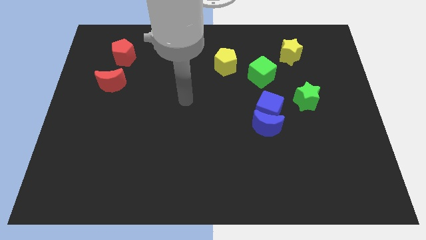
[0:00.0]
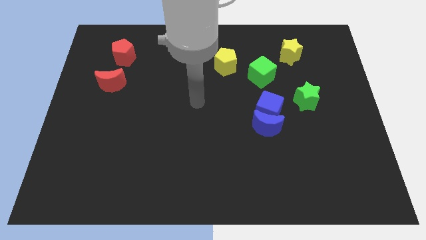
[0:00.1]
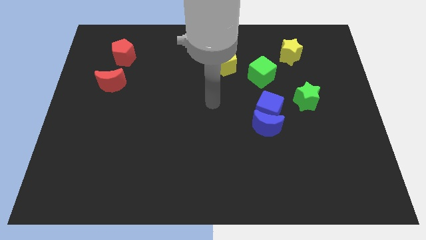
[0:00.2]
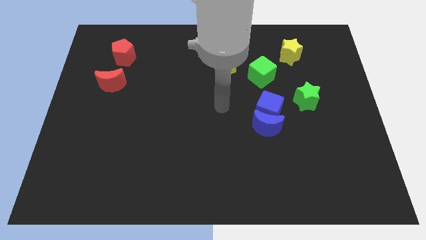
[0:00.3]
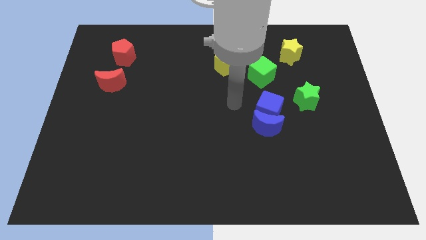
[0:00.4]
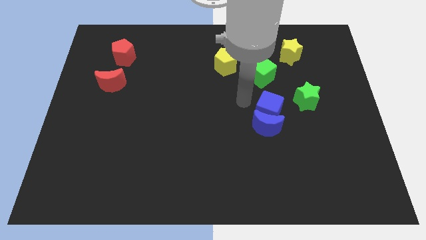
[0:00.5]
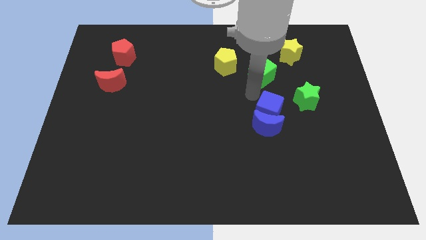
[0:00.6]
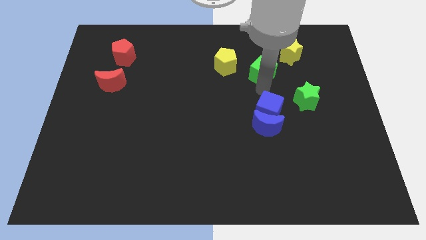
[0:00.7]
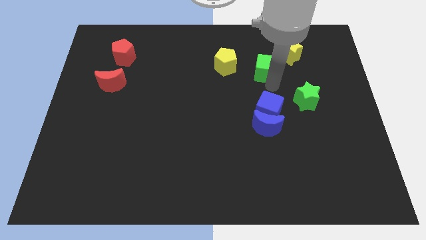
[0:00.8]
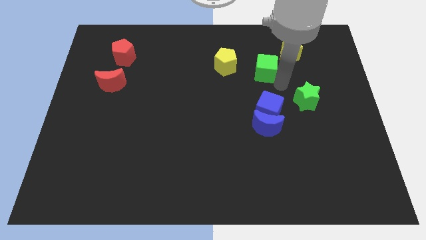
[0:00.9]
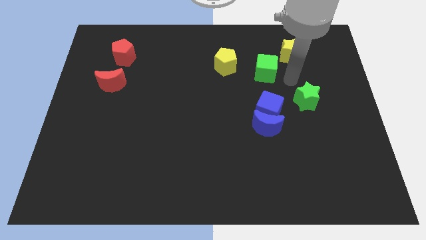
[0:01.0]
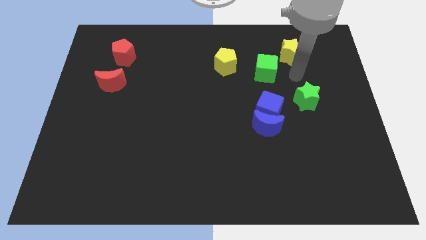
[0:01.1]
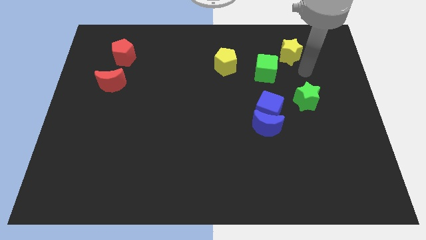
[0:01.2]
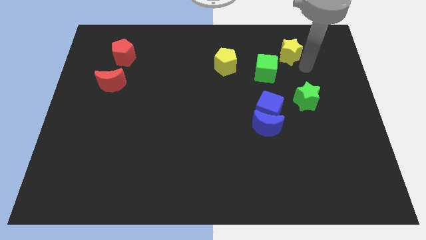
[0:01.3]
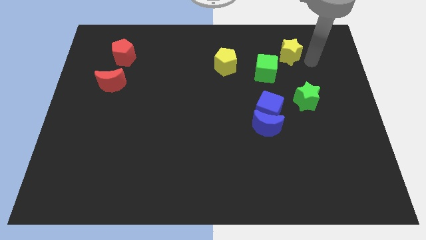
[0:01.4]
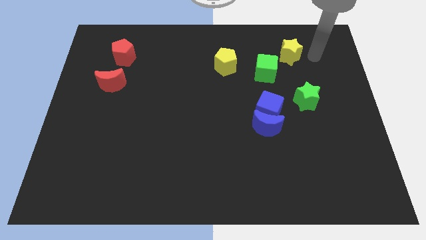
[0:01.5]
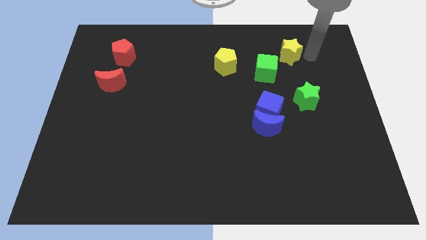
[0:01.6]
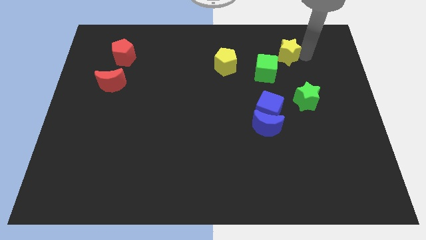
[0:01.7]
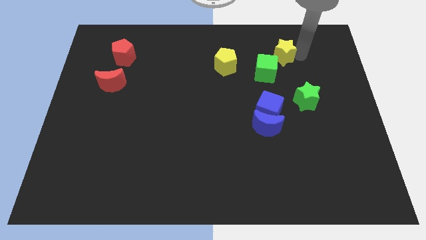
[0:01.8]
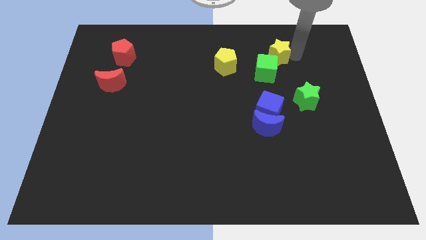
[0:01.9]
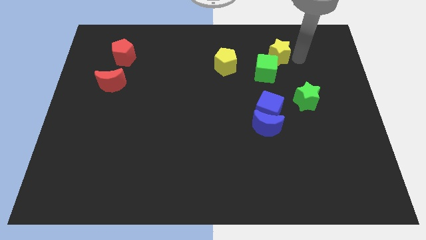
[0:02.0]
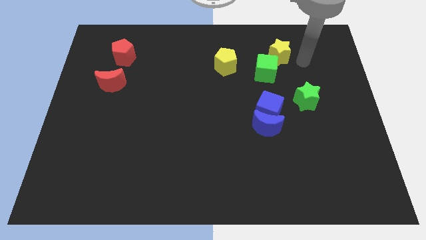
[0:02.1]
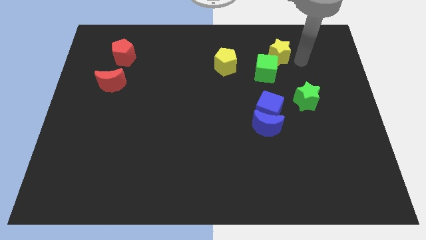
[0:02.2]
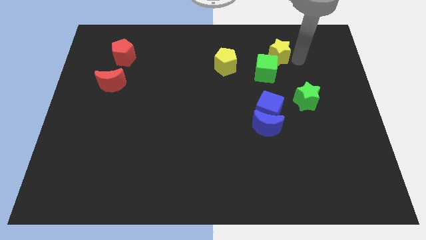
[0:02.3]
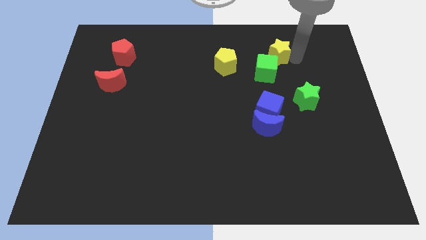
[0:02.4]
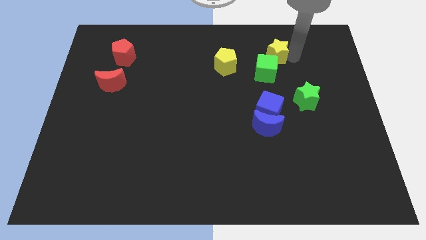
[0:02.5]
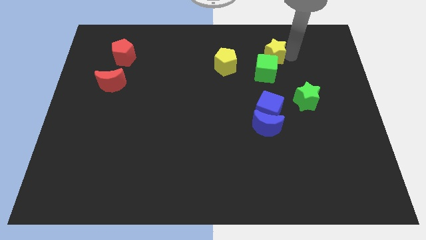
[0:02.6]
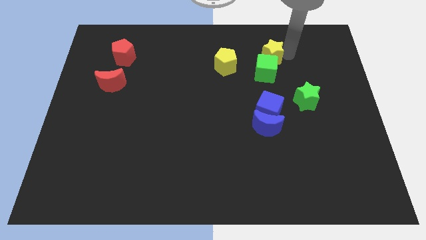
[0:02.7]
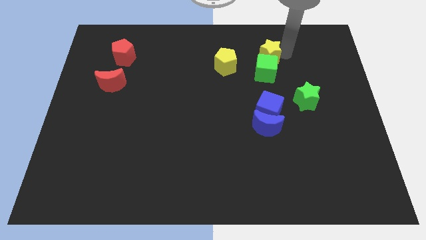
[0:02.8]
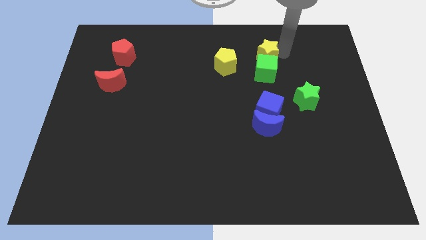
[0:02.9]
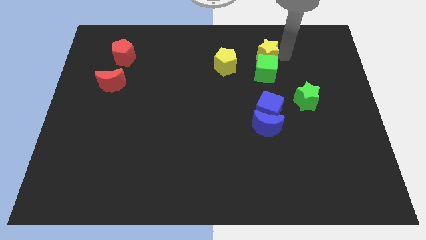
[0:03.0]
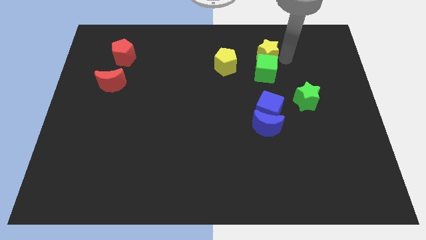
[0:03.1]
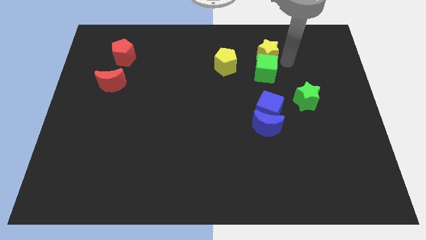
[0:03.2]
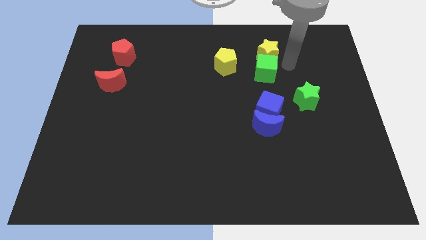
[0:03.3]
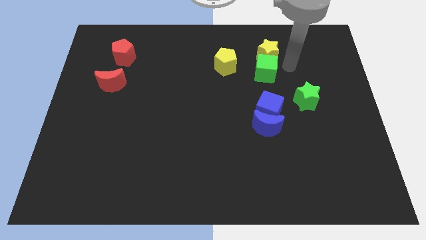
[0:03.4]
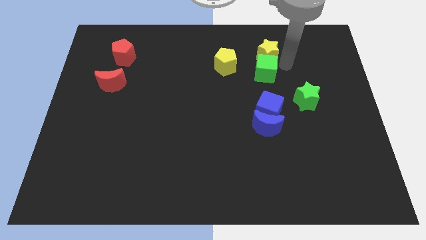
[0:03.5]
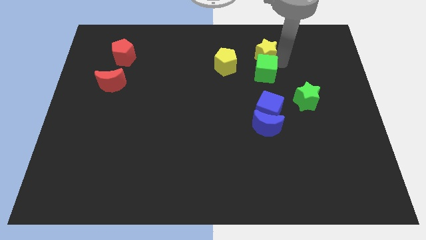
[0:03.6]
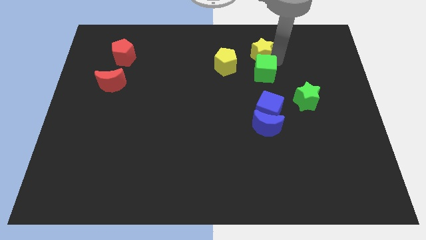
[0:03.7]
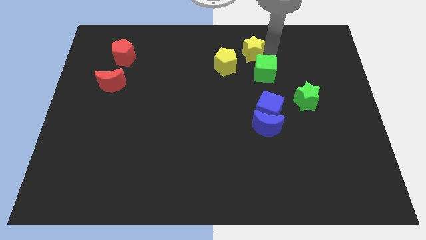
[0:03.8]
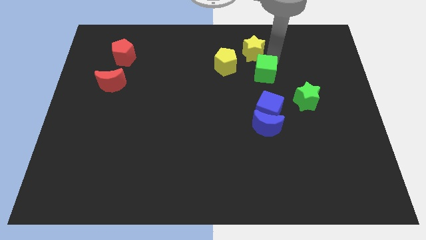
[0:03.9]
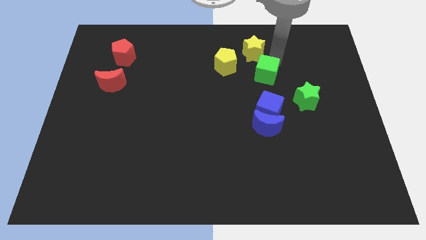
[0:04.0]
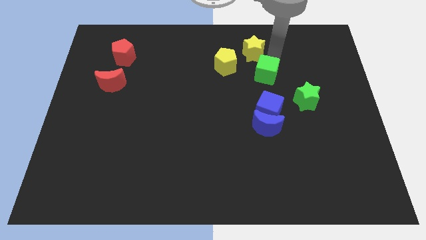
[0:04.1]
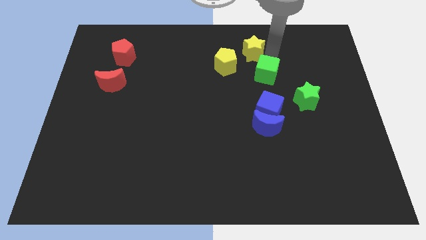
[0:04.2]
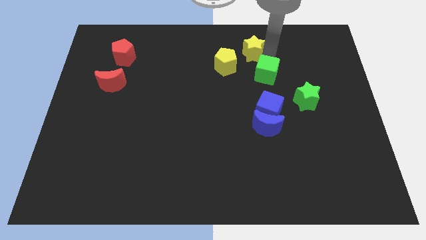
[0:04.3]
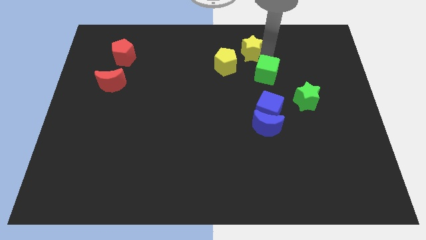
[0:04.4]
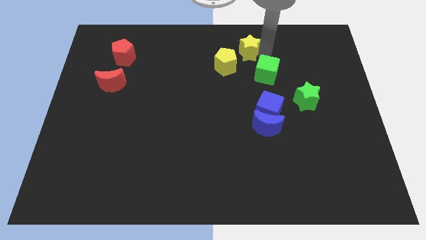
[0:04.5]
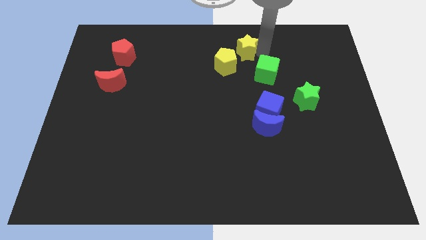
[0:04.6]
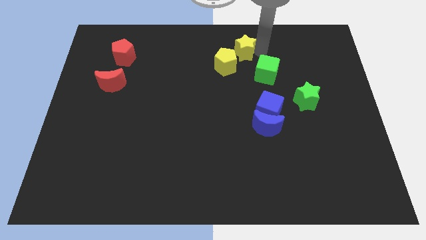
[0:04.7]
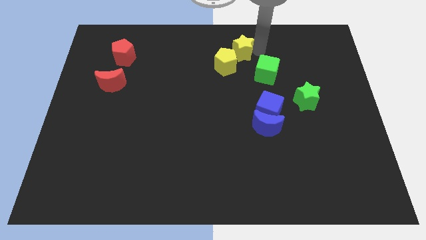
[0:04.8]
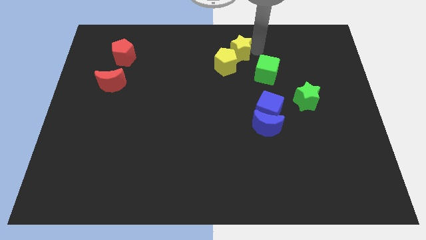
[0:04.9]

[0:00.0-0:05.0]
move the yellow star to the top

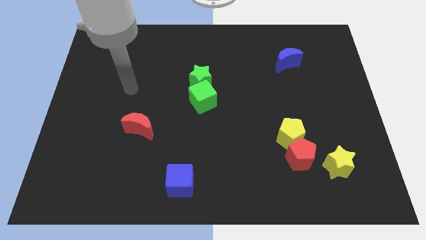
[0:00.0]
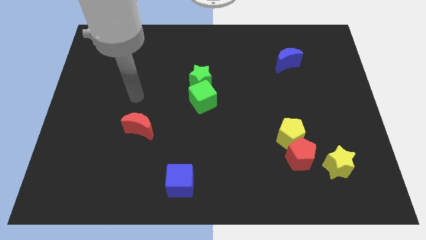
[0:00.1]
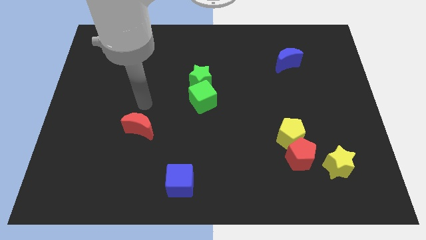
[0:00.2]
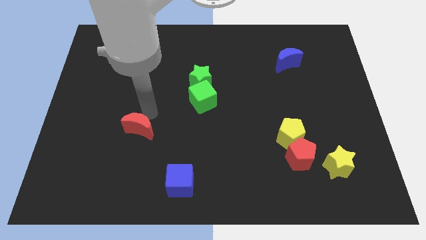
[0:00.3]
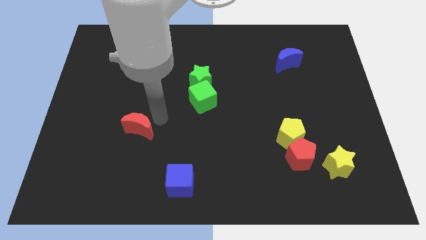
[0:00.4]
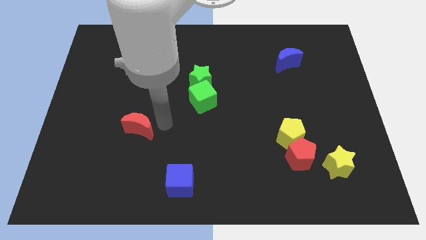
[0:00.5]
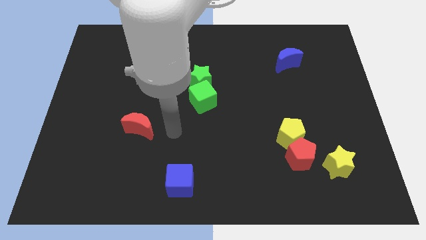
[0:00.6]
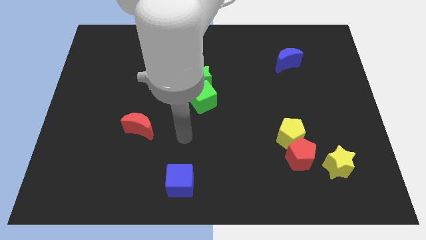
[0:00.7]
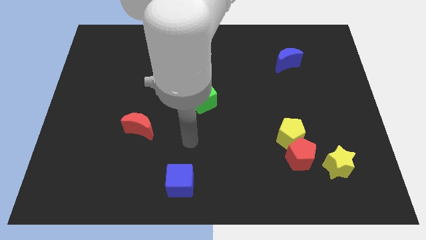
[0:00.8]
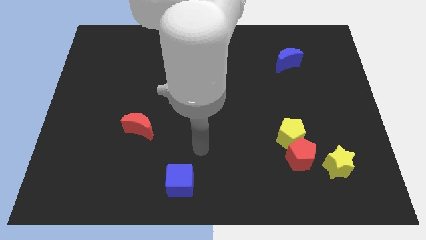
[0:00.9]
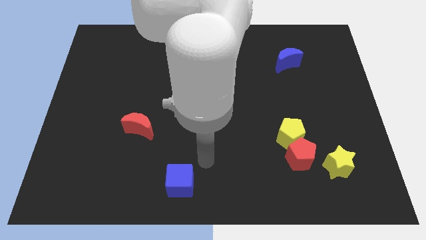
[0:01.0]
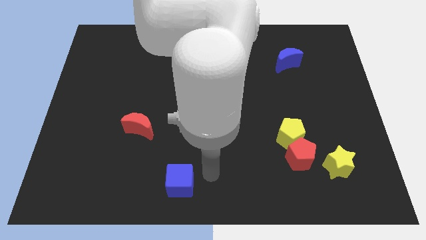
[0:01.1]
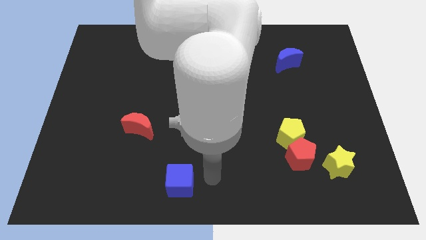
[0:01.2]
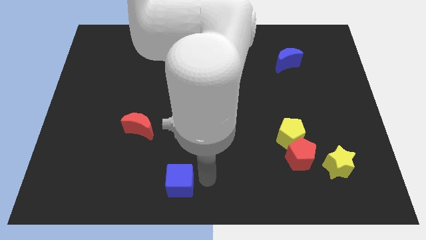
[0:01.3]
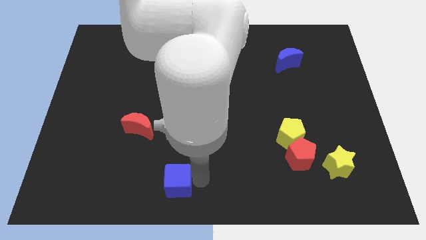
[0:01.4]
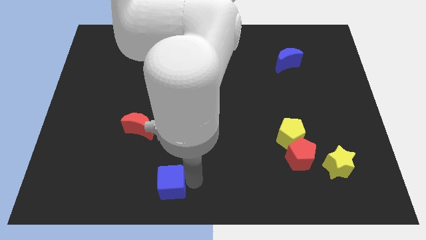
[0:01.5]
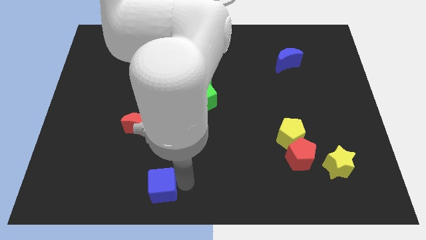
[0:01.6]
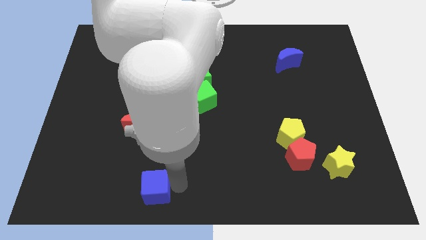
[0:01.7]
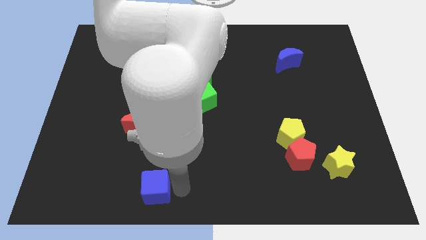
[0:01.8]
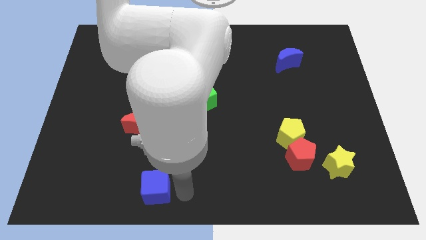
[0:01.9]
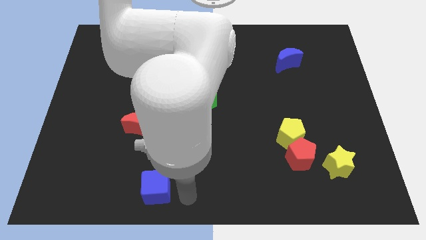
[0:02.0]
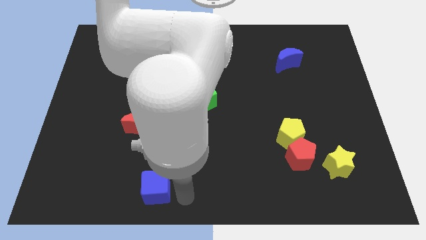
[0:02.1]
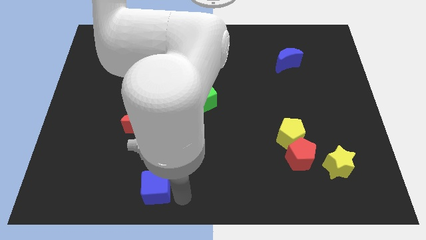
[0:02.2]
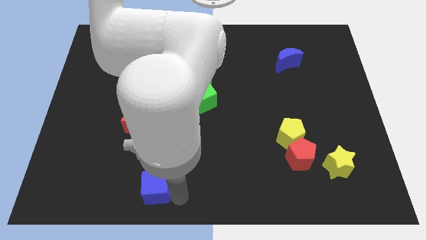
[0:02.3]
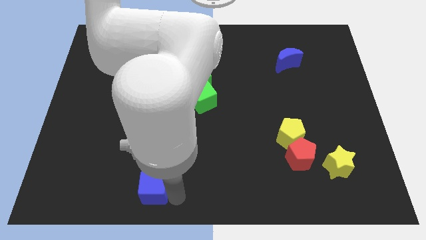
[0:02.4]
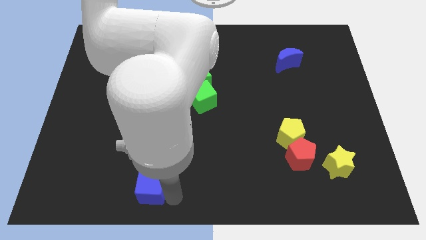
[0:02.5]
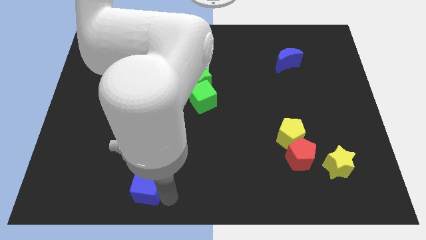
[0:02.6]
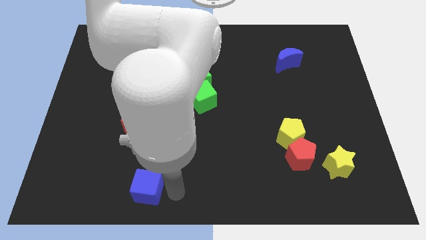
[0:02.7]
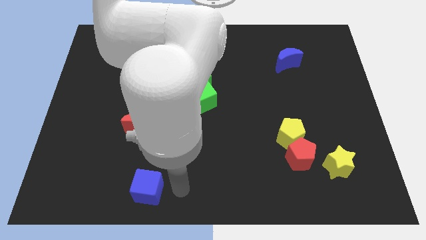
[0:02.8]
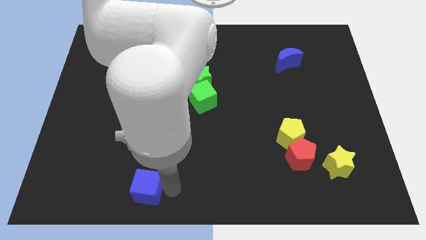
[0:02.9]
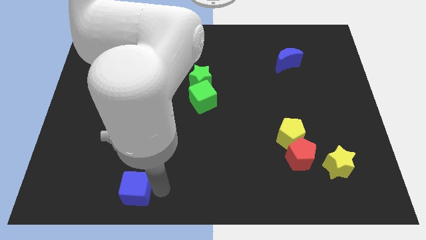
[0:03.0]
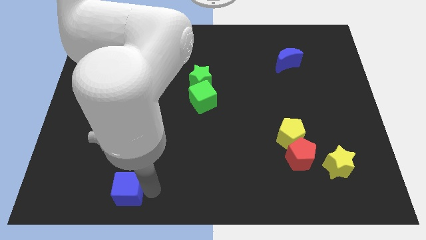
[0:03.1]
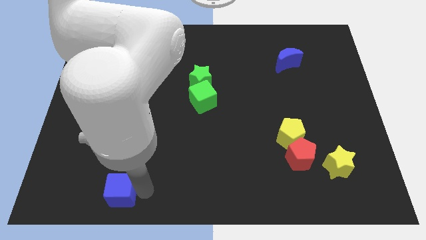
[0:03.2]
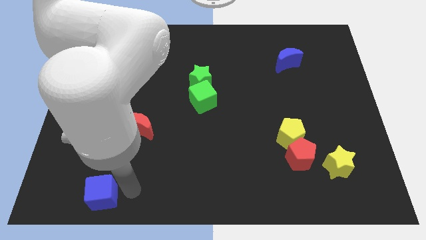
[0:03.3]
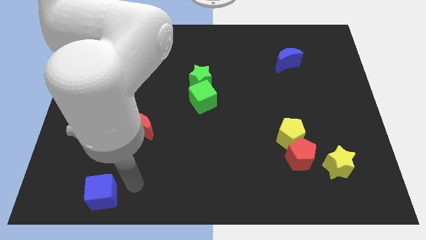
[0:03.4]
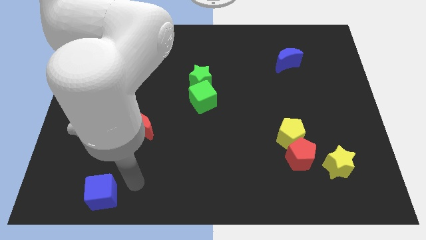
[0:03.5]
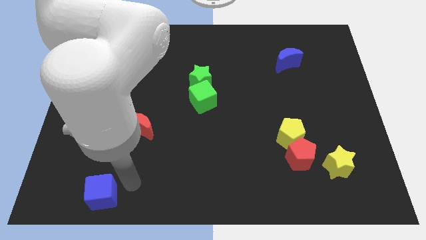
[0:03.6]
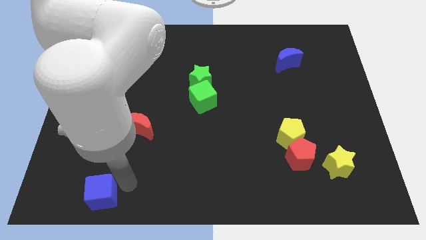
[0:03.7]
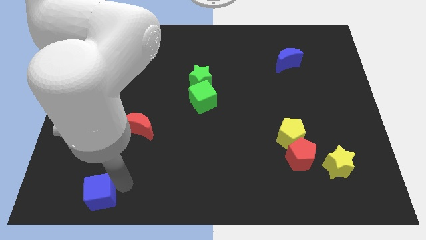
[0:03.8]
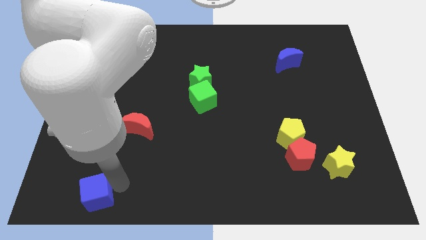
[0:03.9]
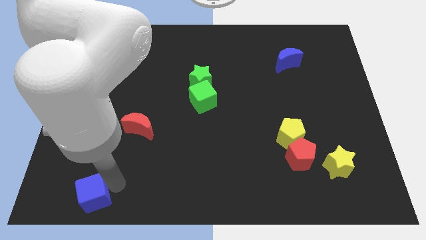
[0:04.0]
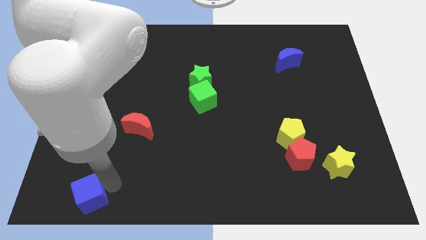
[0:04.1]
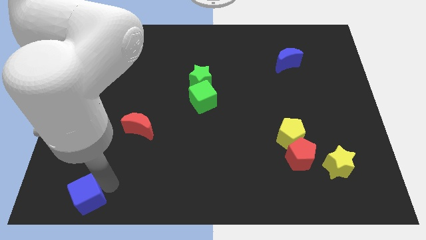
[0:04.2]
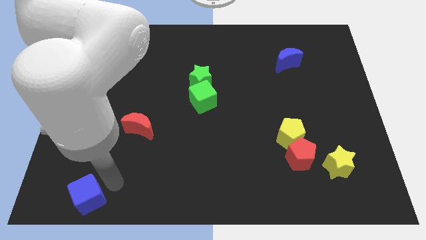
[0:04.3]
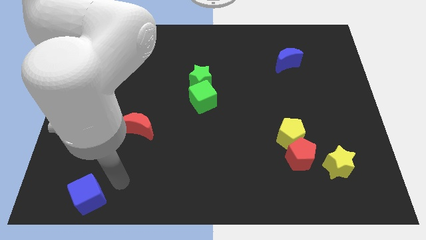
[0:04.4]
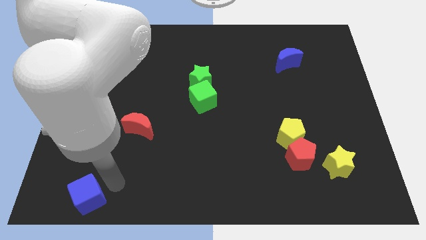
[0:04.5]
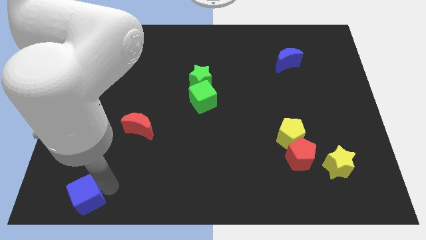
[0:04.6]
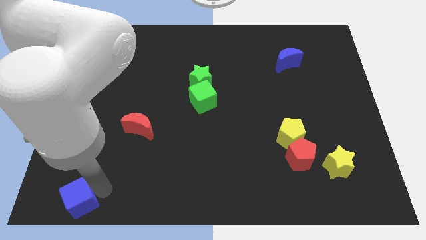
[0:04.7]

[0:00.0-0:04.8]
slide the blue cube to the bottom left
